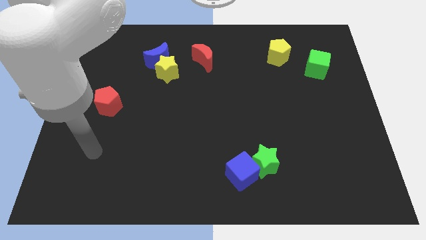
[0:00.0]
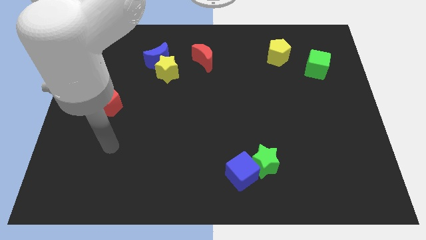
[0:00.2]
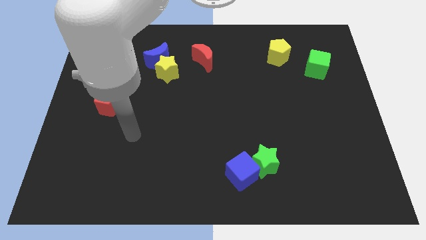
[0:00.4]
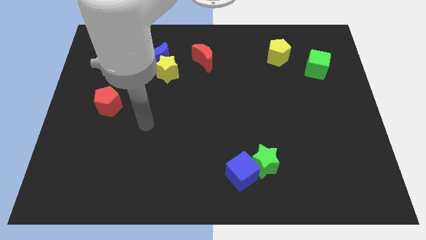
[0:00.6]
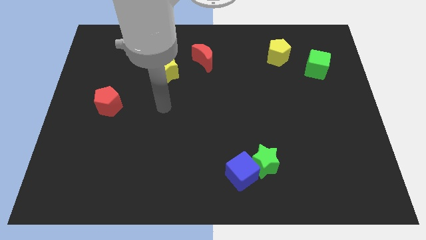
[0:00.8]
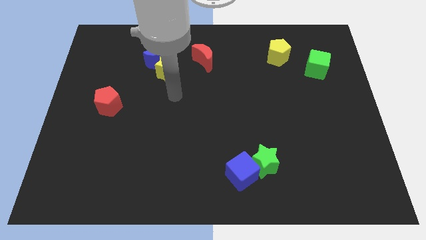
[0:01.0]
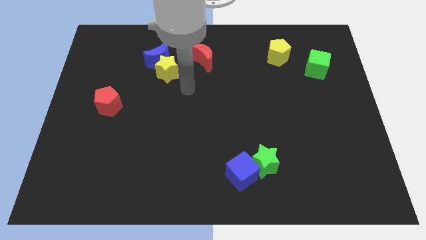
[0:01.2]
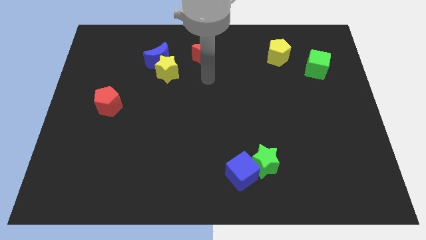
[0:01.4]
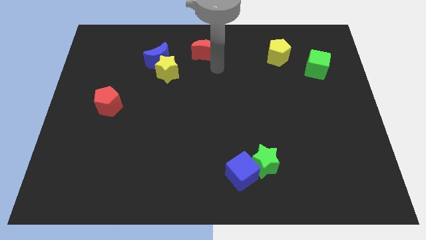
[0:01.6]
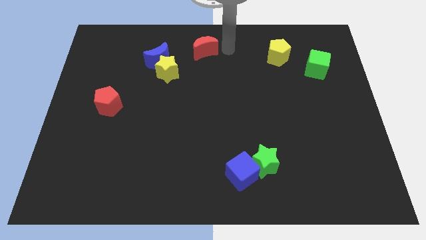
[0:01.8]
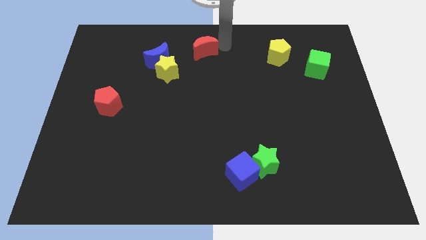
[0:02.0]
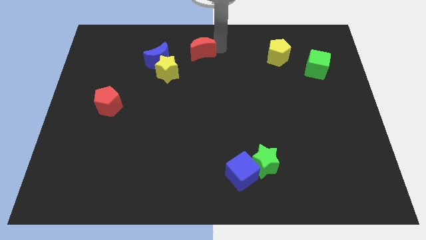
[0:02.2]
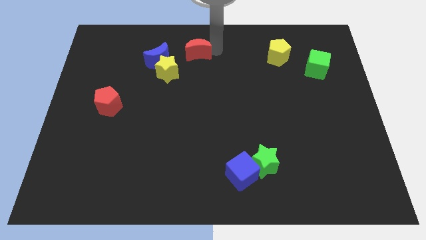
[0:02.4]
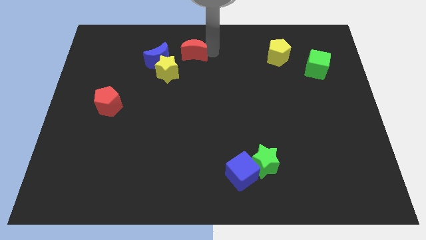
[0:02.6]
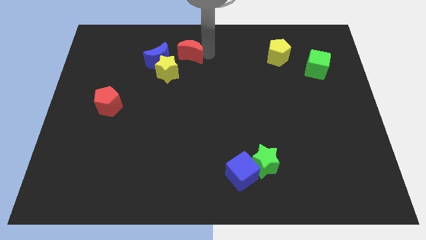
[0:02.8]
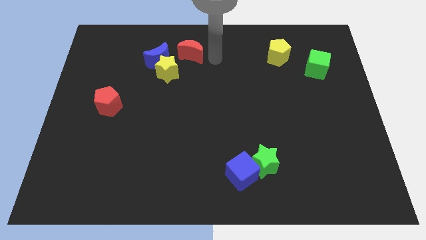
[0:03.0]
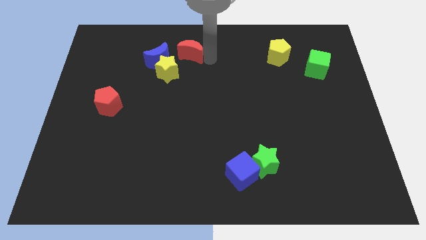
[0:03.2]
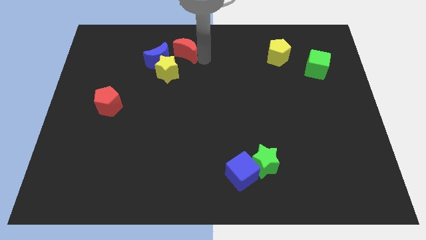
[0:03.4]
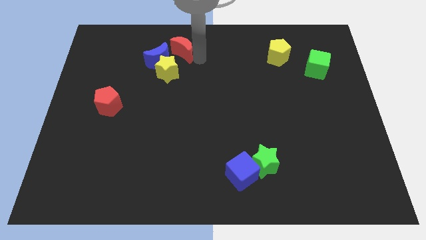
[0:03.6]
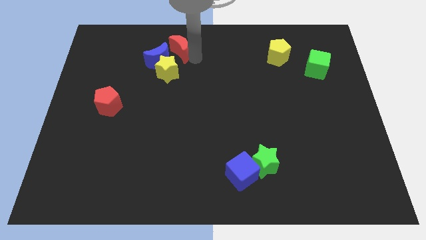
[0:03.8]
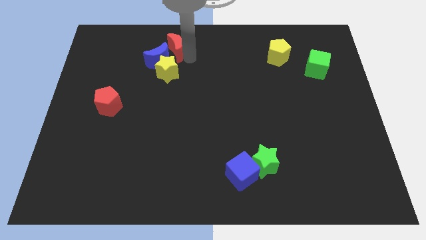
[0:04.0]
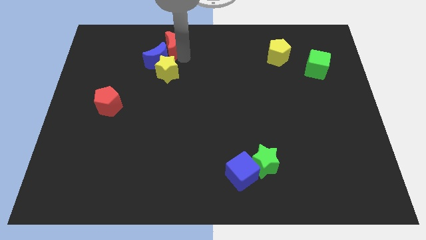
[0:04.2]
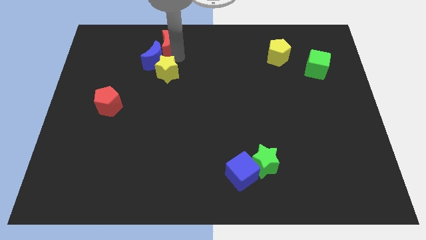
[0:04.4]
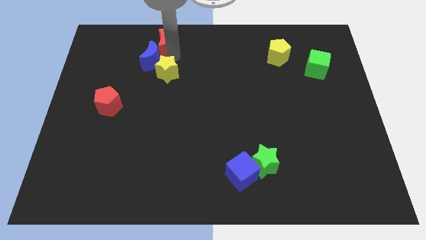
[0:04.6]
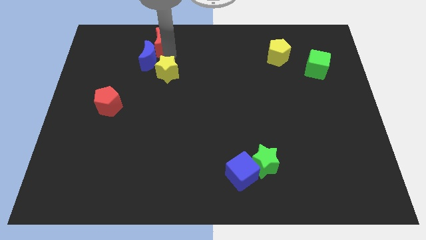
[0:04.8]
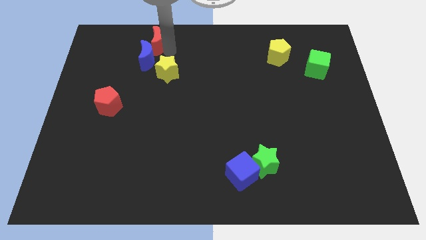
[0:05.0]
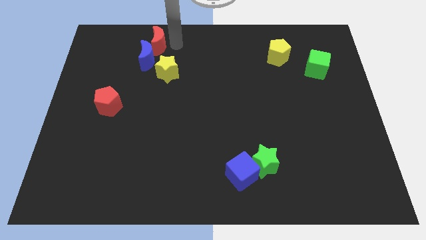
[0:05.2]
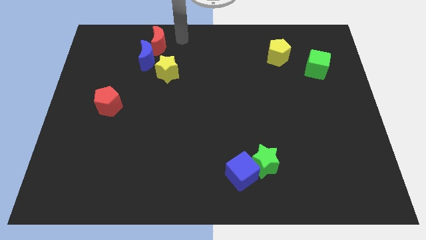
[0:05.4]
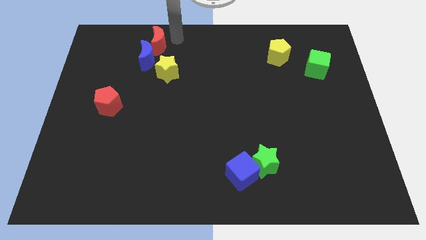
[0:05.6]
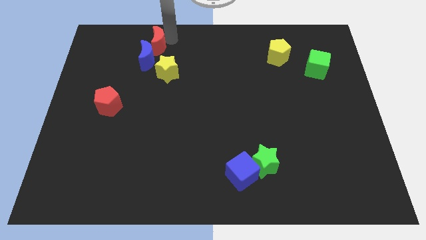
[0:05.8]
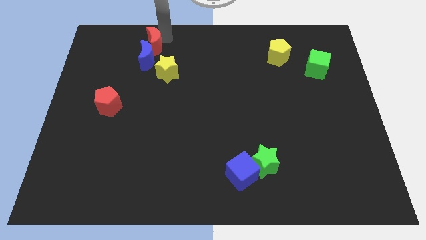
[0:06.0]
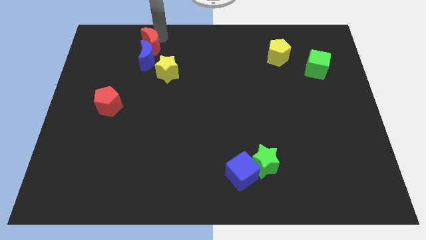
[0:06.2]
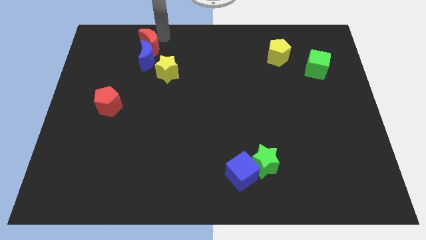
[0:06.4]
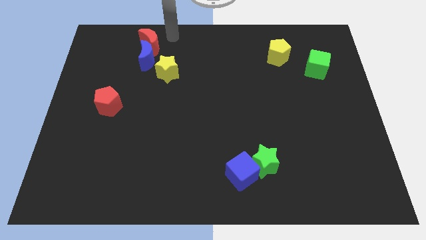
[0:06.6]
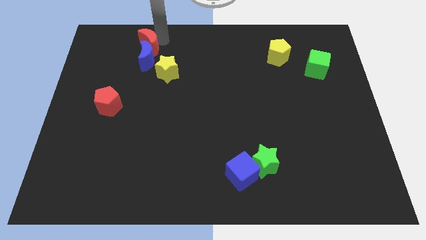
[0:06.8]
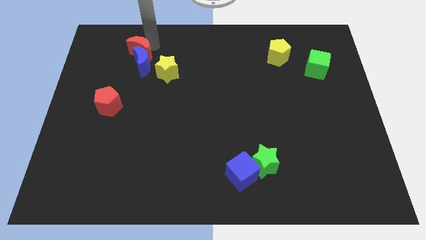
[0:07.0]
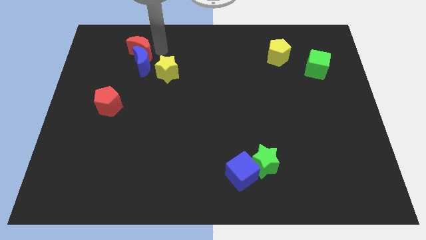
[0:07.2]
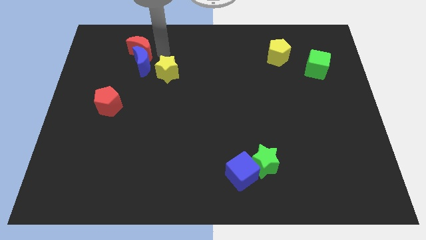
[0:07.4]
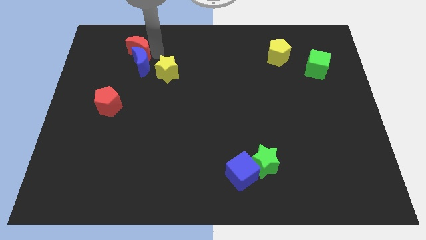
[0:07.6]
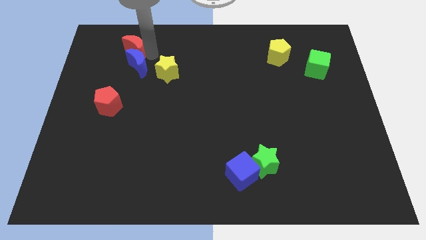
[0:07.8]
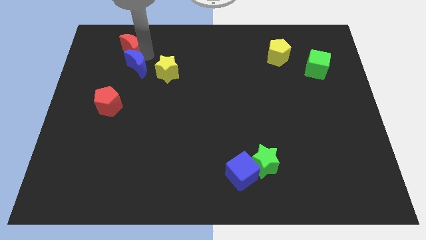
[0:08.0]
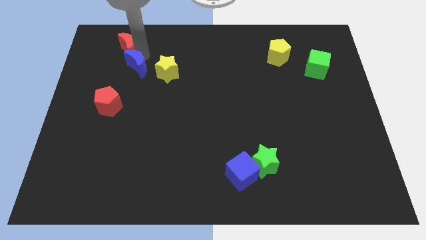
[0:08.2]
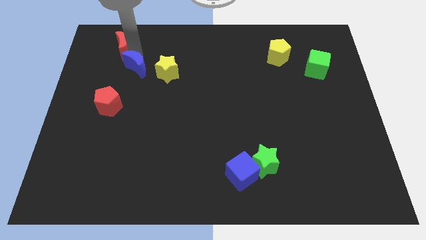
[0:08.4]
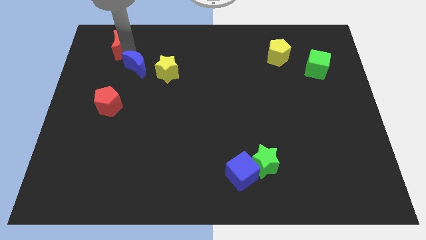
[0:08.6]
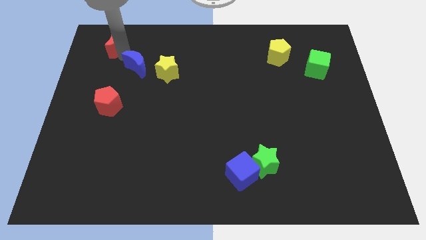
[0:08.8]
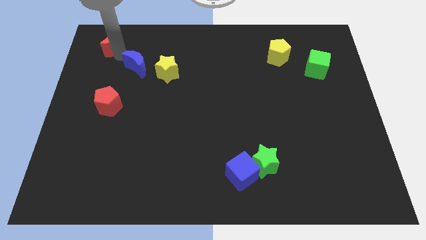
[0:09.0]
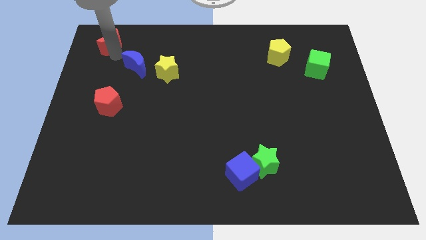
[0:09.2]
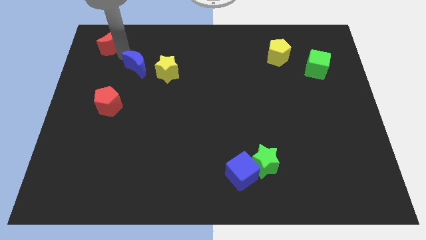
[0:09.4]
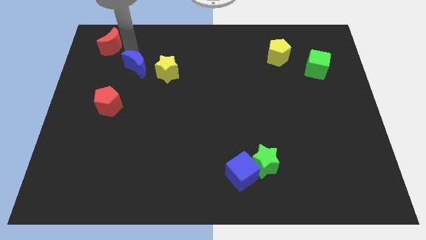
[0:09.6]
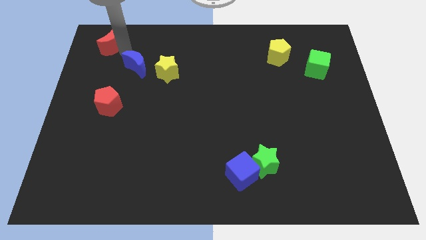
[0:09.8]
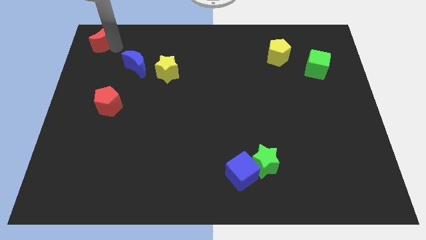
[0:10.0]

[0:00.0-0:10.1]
put the red moon to the upper left corner

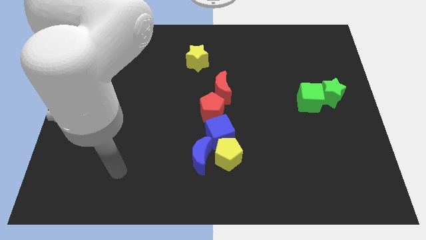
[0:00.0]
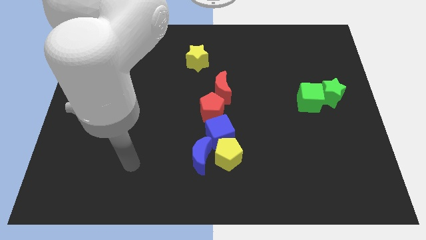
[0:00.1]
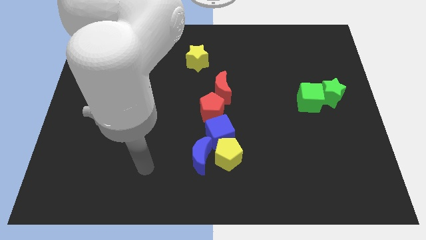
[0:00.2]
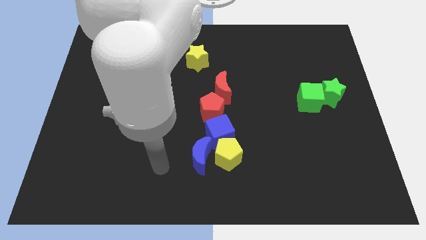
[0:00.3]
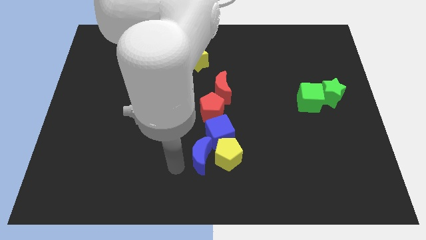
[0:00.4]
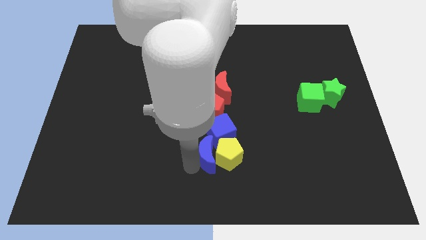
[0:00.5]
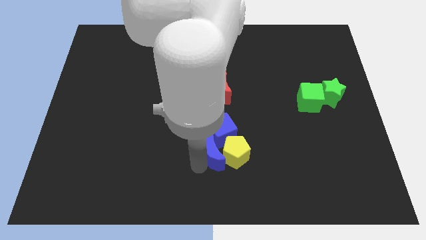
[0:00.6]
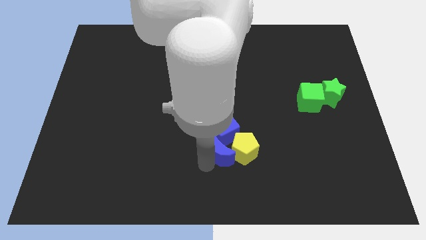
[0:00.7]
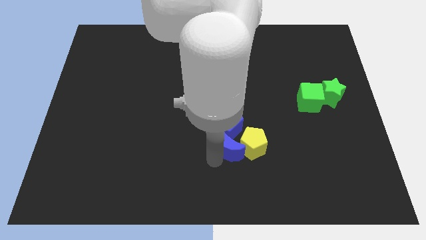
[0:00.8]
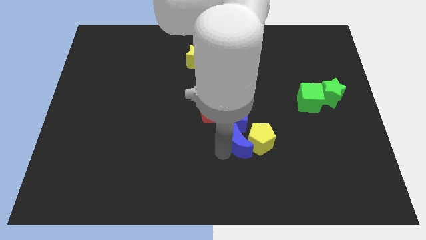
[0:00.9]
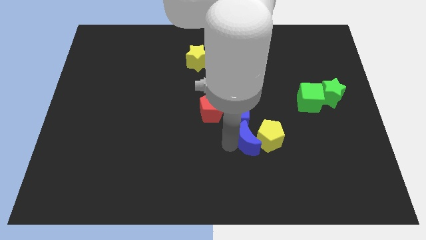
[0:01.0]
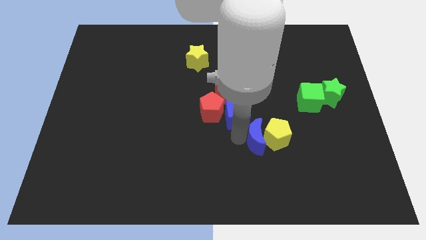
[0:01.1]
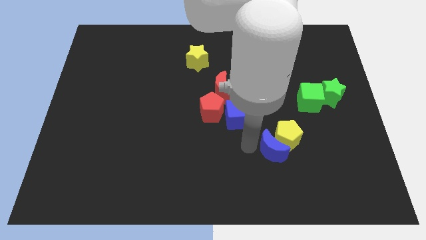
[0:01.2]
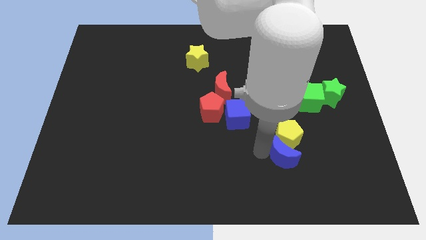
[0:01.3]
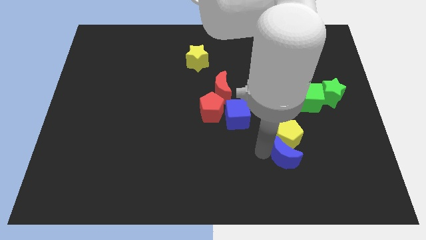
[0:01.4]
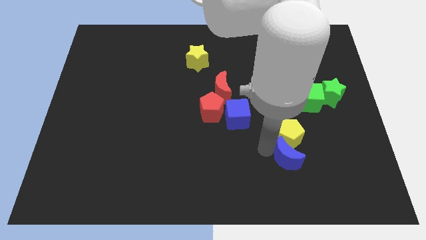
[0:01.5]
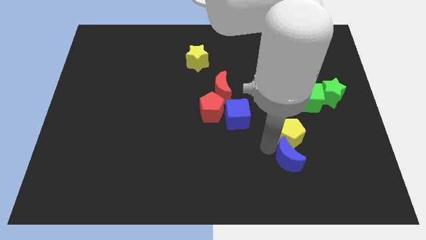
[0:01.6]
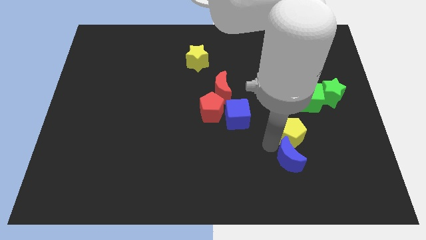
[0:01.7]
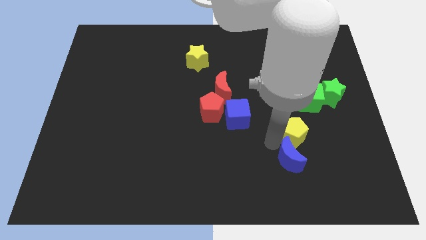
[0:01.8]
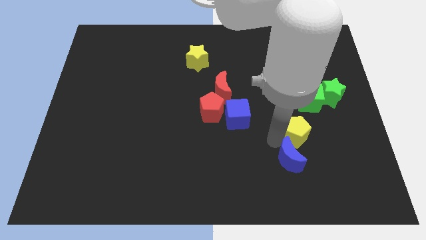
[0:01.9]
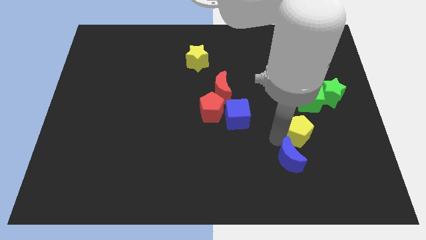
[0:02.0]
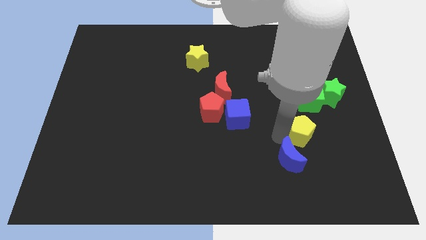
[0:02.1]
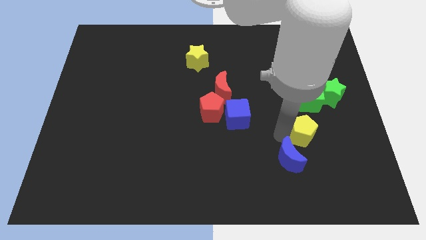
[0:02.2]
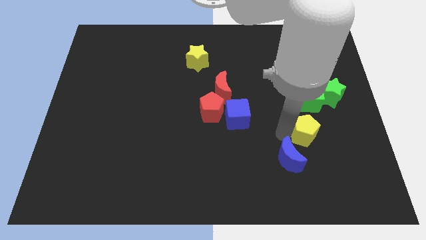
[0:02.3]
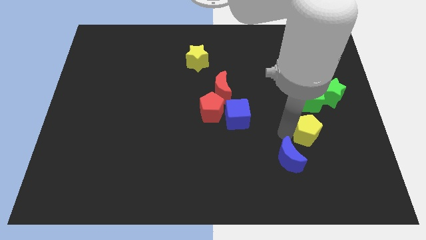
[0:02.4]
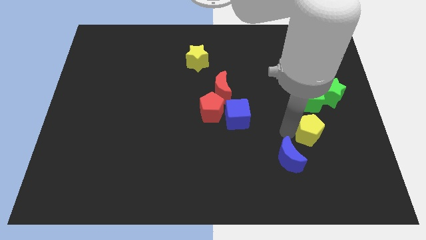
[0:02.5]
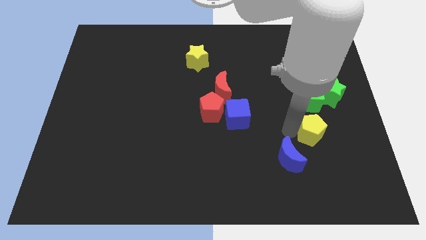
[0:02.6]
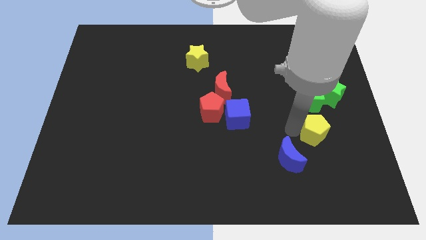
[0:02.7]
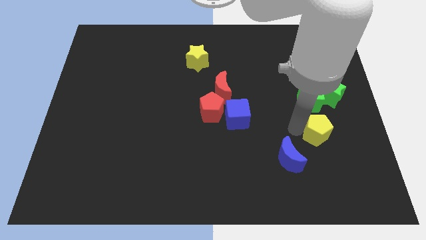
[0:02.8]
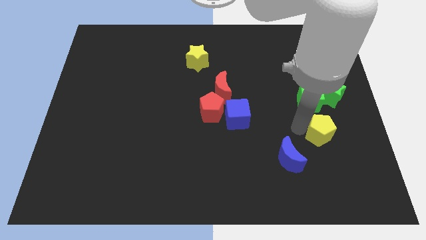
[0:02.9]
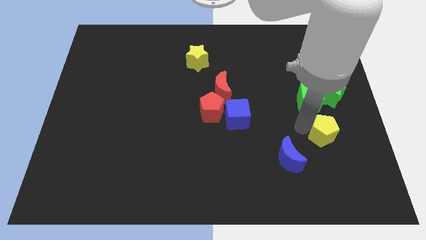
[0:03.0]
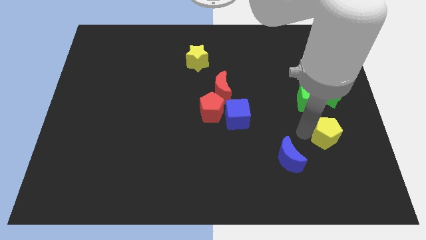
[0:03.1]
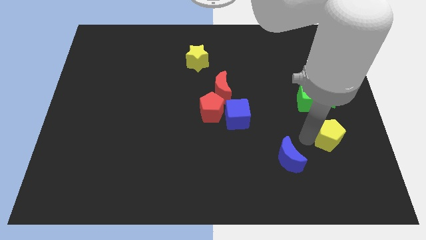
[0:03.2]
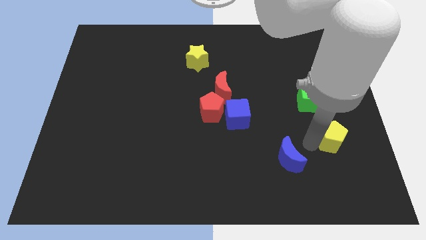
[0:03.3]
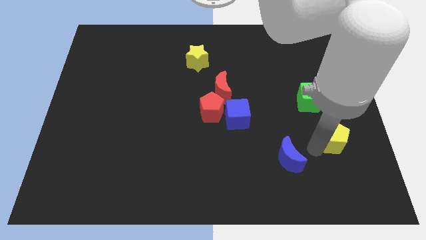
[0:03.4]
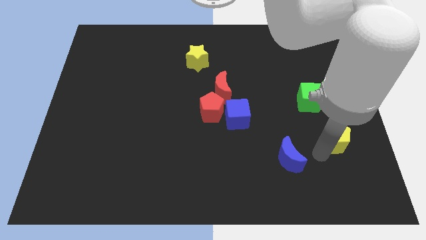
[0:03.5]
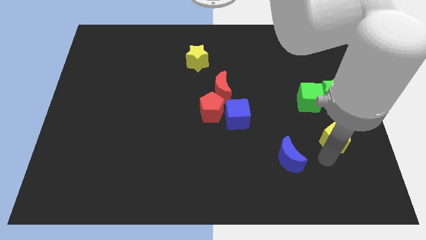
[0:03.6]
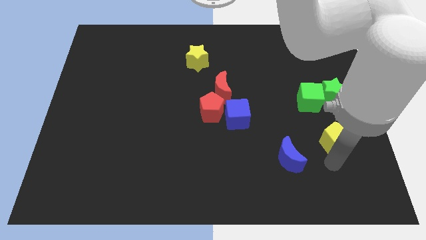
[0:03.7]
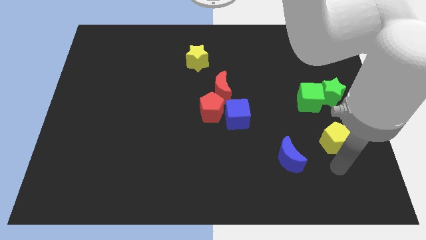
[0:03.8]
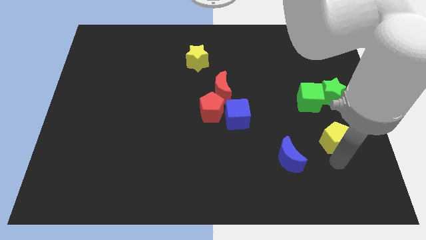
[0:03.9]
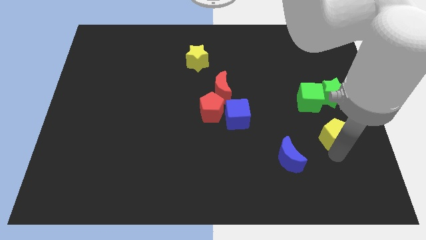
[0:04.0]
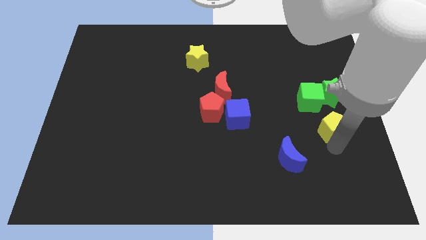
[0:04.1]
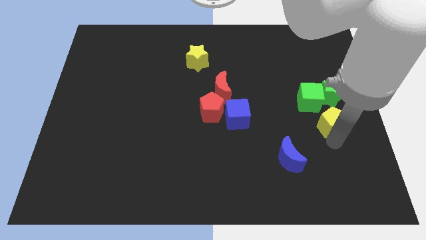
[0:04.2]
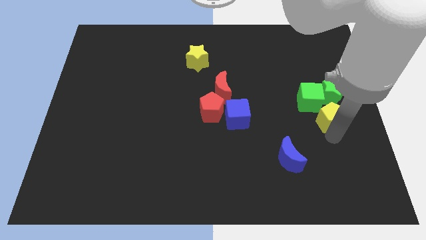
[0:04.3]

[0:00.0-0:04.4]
put the yellow pentagon to the right side
